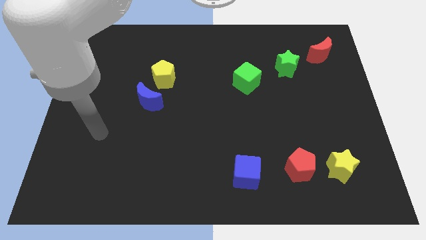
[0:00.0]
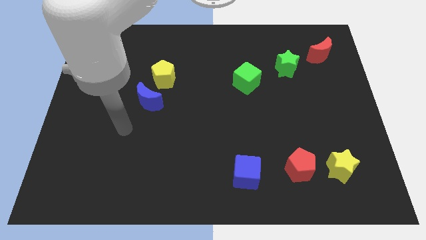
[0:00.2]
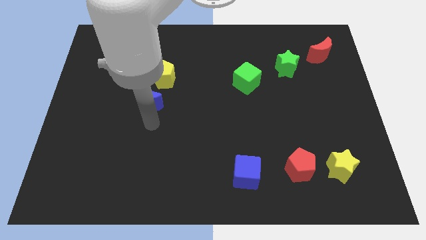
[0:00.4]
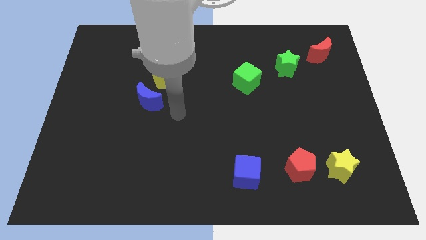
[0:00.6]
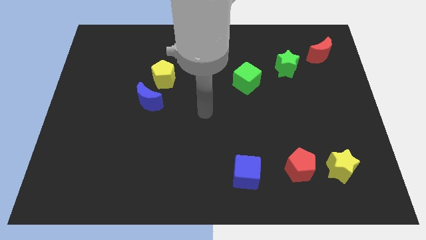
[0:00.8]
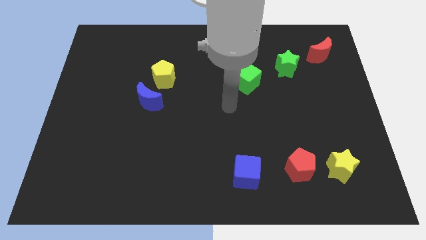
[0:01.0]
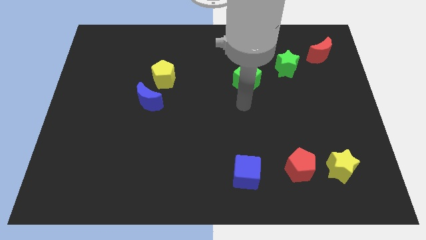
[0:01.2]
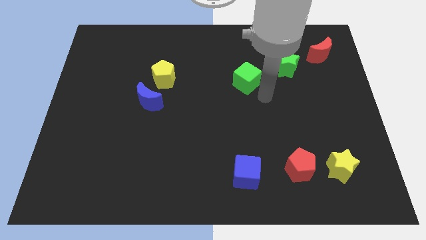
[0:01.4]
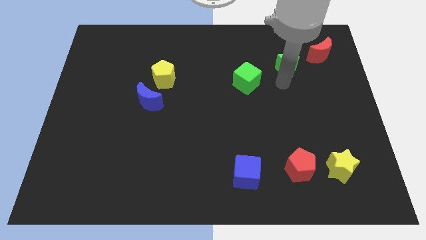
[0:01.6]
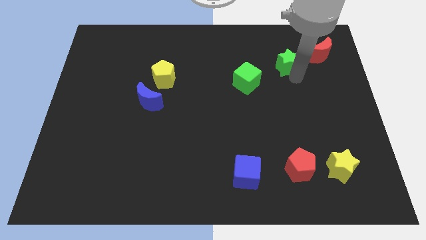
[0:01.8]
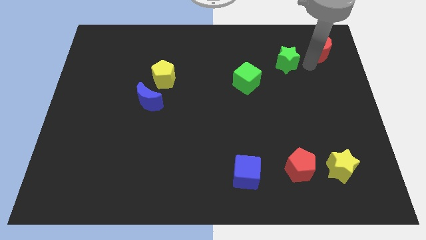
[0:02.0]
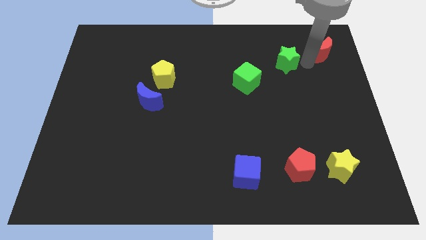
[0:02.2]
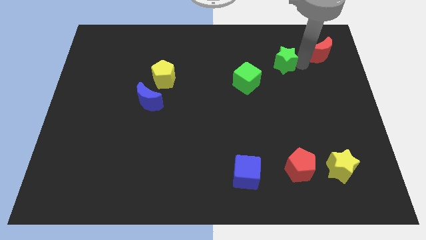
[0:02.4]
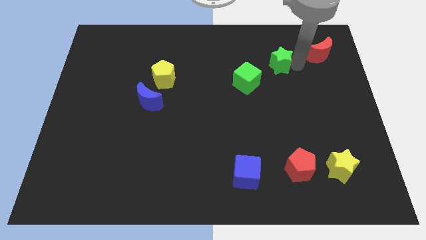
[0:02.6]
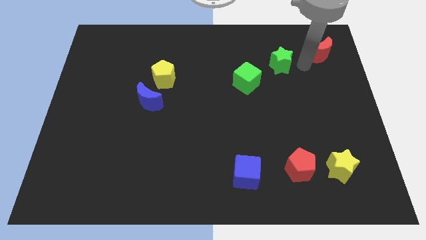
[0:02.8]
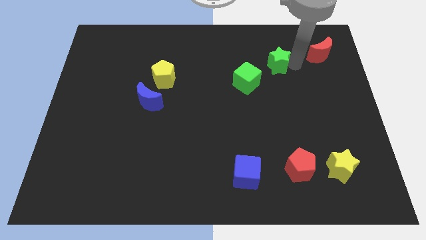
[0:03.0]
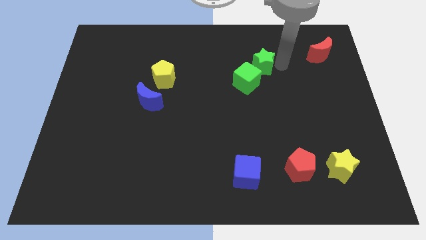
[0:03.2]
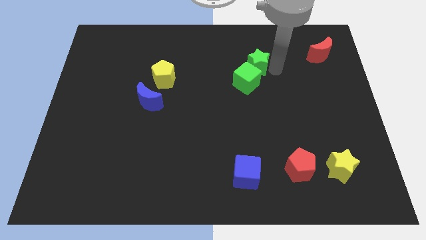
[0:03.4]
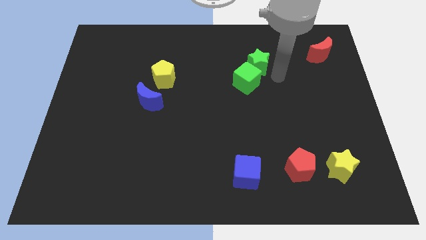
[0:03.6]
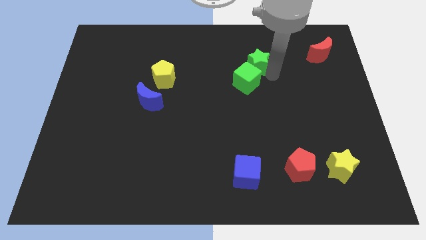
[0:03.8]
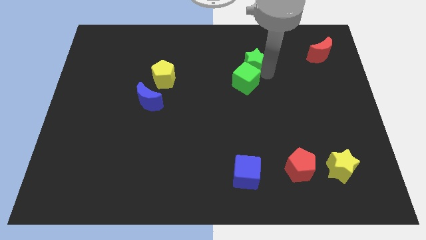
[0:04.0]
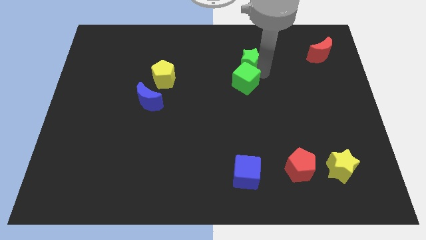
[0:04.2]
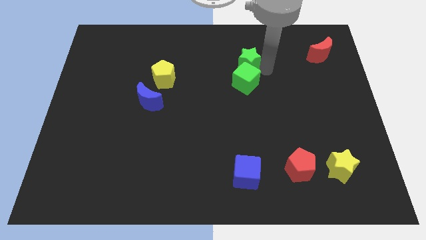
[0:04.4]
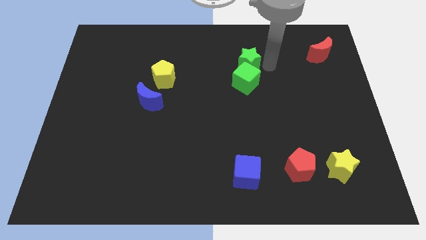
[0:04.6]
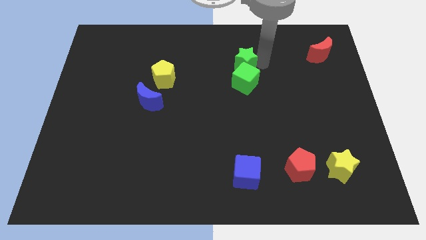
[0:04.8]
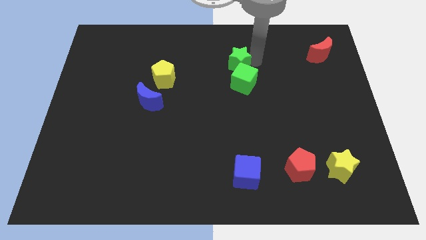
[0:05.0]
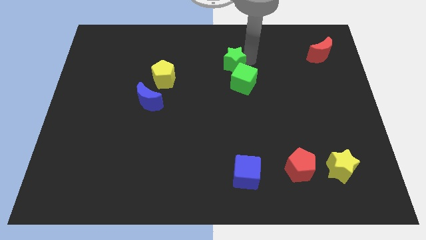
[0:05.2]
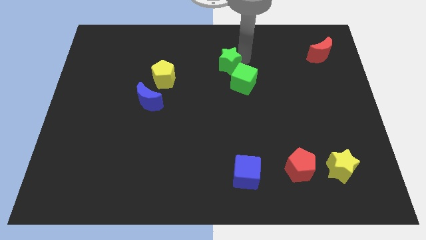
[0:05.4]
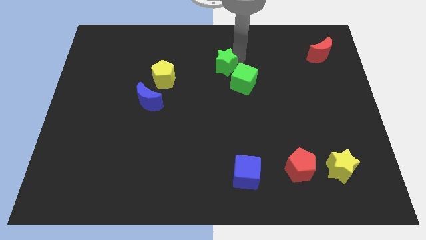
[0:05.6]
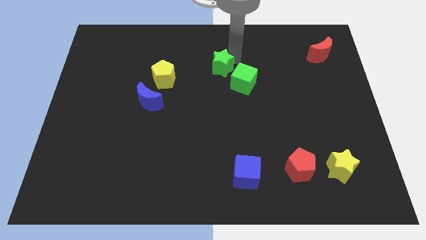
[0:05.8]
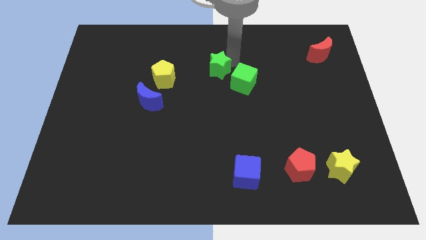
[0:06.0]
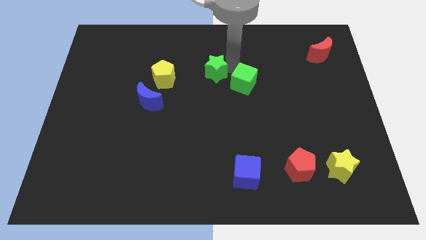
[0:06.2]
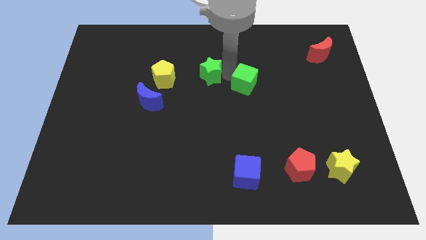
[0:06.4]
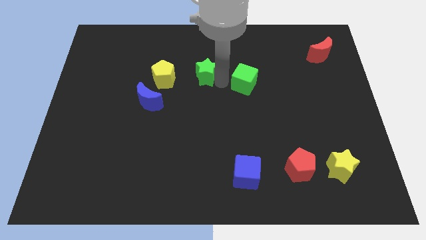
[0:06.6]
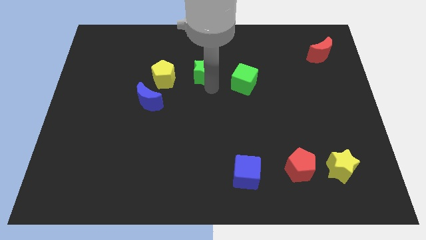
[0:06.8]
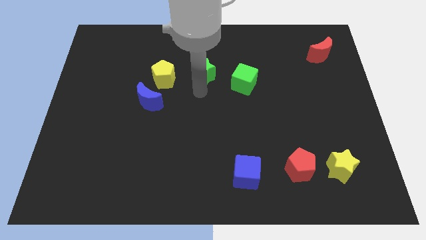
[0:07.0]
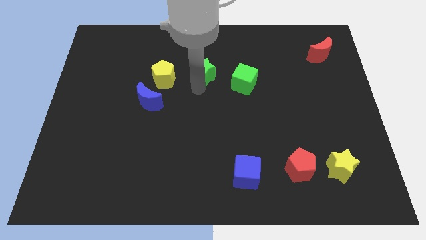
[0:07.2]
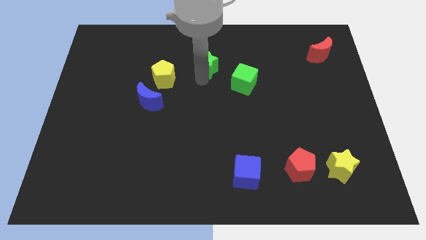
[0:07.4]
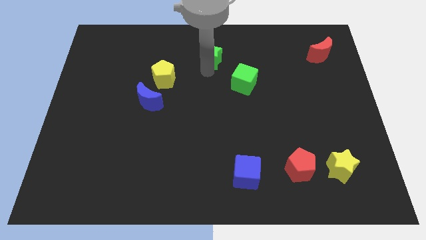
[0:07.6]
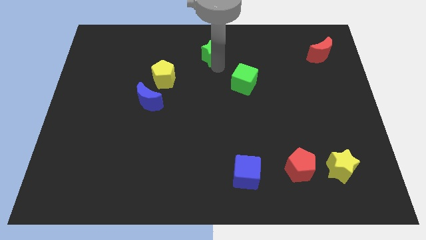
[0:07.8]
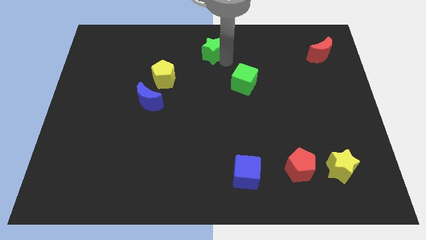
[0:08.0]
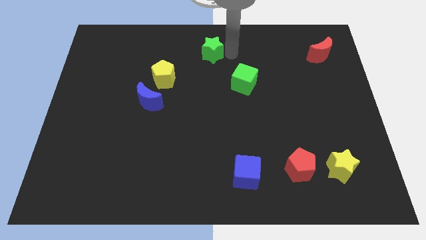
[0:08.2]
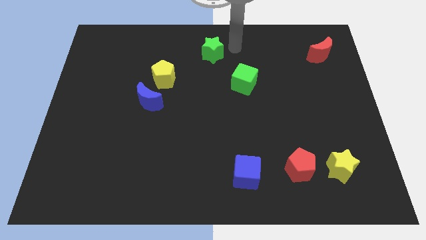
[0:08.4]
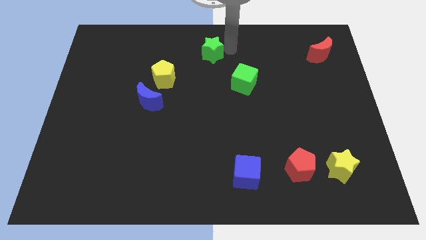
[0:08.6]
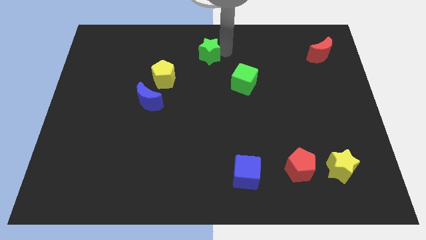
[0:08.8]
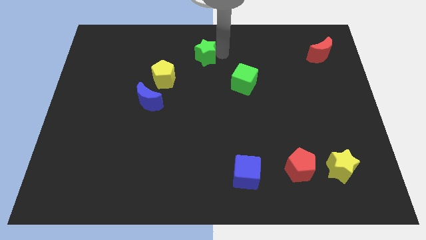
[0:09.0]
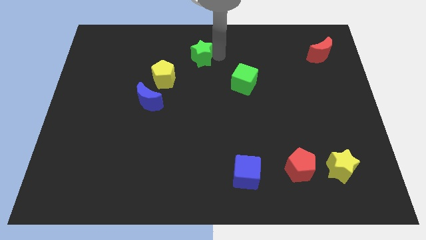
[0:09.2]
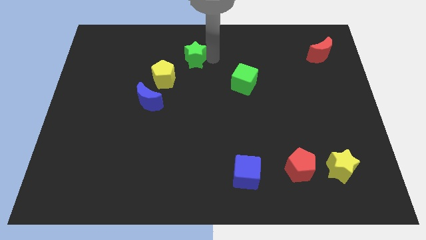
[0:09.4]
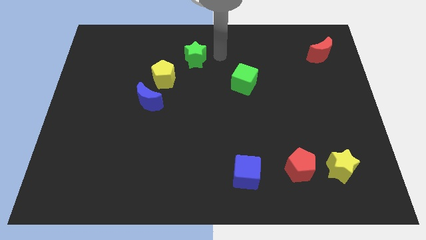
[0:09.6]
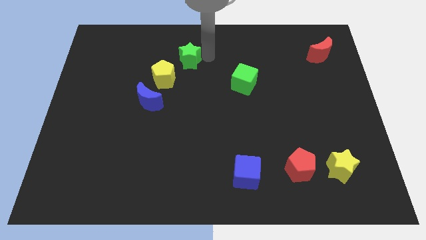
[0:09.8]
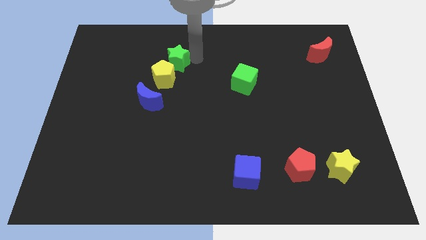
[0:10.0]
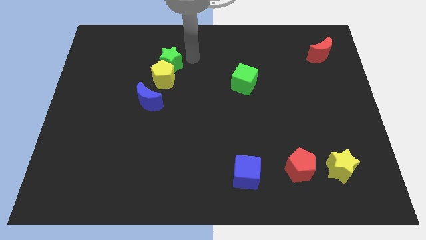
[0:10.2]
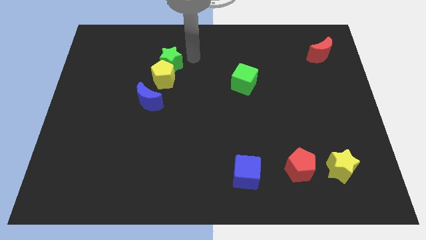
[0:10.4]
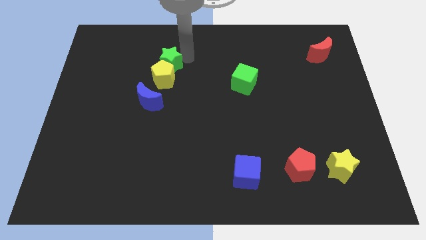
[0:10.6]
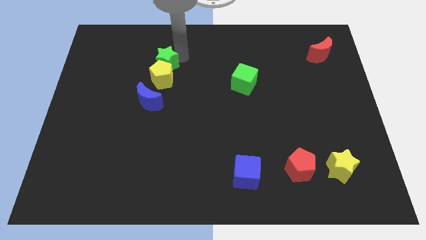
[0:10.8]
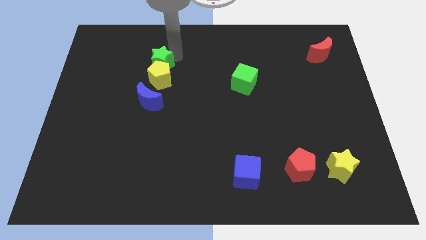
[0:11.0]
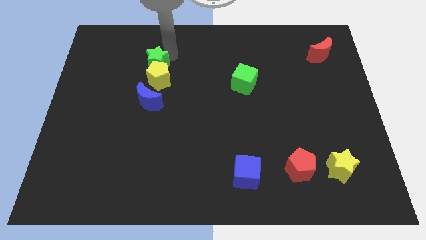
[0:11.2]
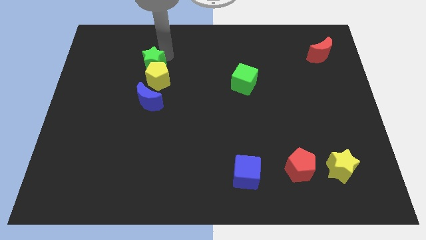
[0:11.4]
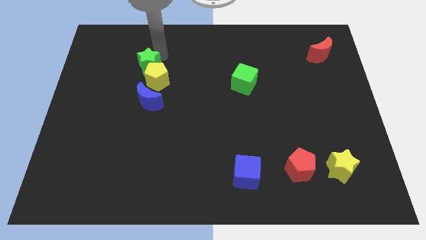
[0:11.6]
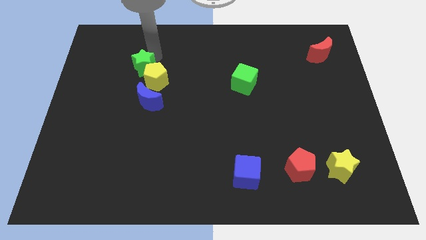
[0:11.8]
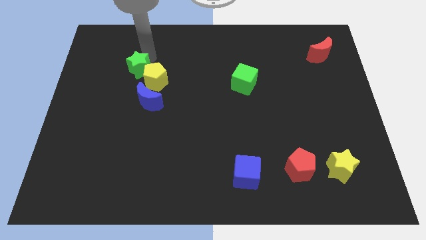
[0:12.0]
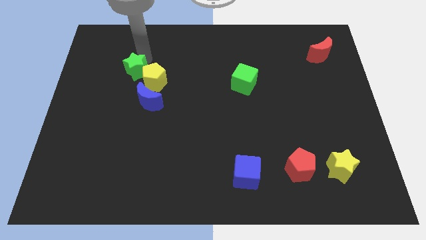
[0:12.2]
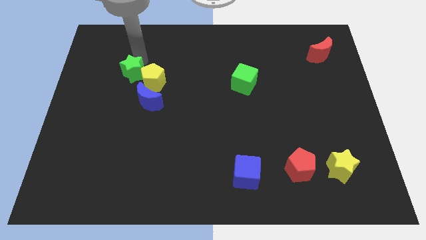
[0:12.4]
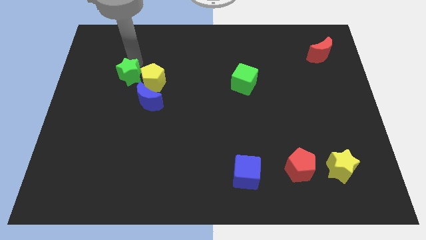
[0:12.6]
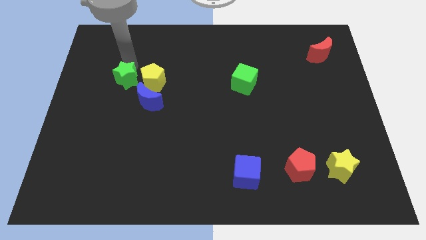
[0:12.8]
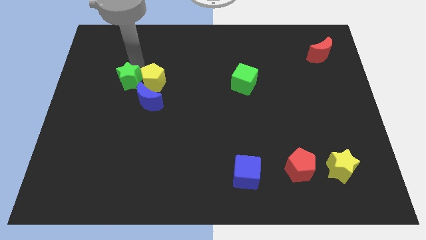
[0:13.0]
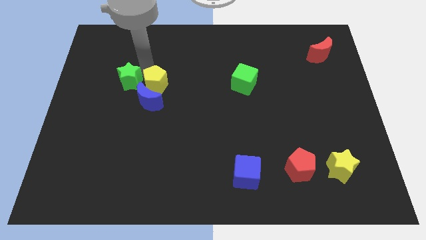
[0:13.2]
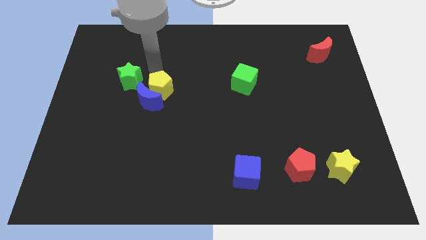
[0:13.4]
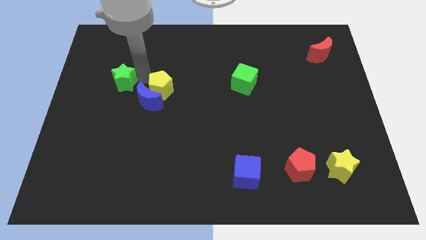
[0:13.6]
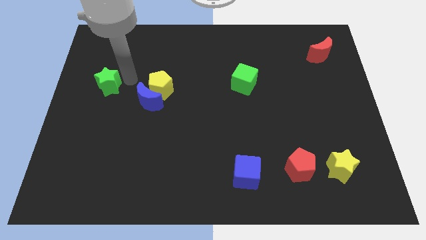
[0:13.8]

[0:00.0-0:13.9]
move the green star to the center left
